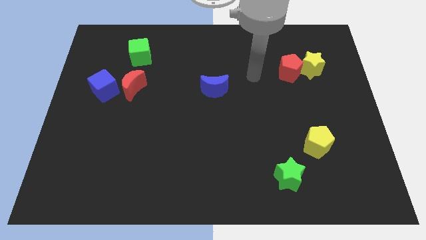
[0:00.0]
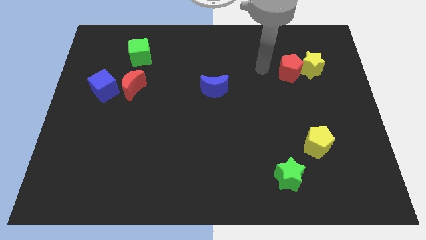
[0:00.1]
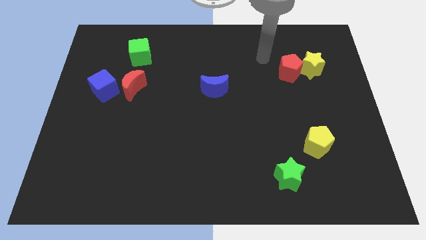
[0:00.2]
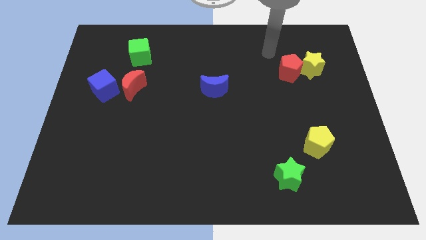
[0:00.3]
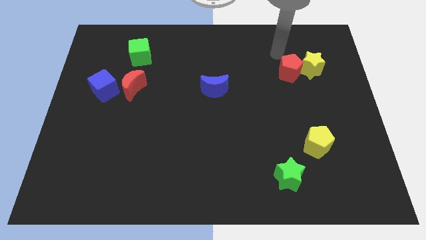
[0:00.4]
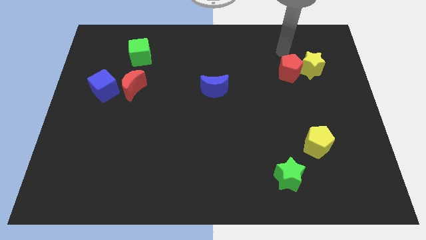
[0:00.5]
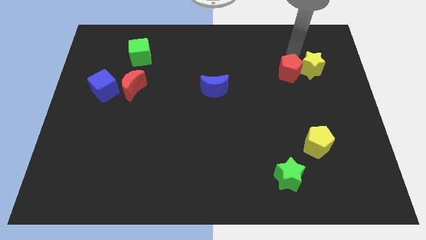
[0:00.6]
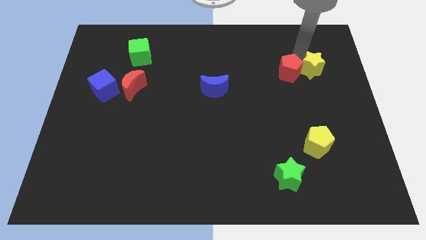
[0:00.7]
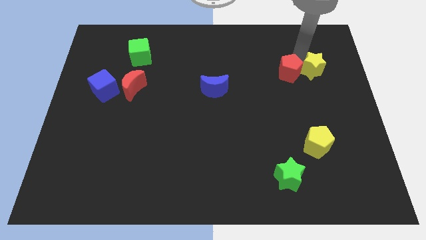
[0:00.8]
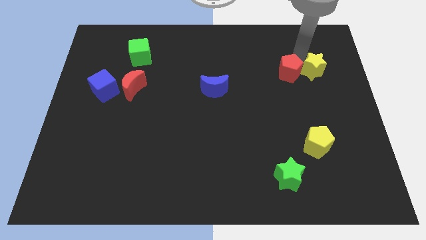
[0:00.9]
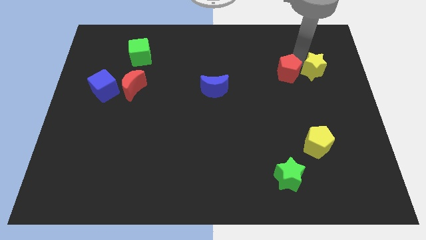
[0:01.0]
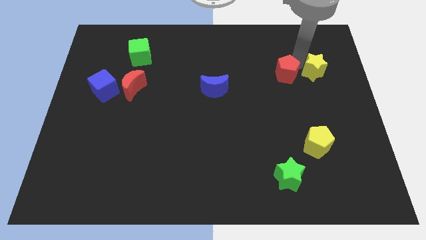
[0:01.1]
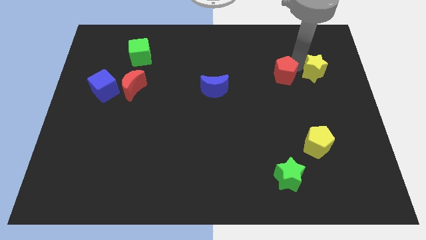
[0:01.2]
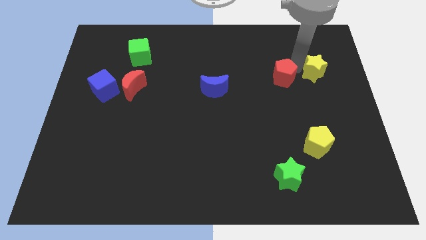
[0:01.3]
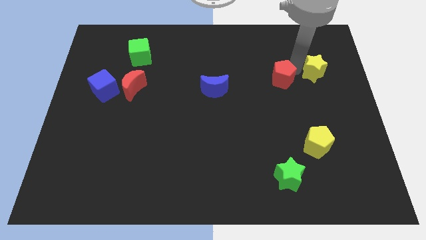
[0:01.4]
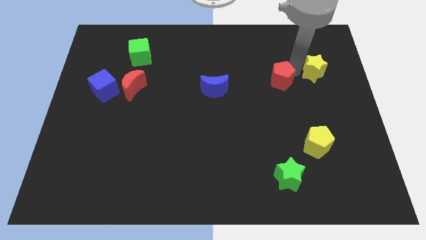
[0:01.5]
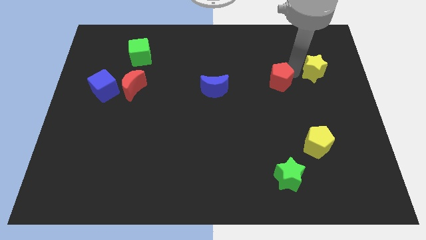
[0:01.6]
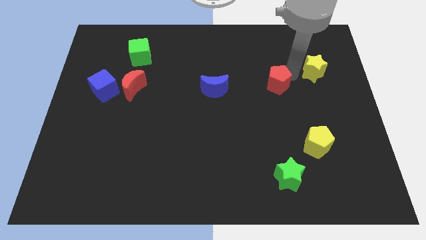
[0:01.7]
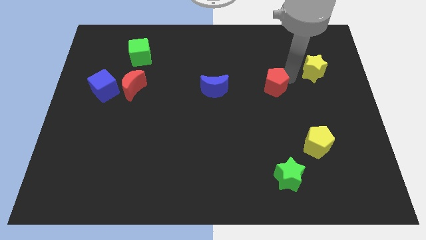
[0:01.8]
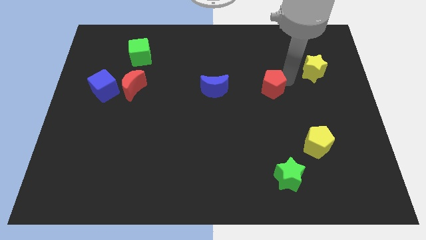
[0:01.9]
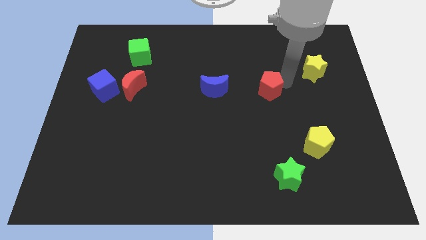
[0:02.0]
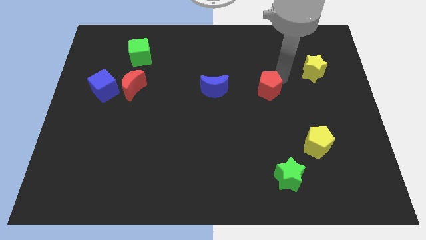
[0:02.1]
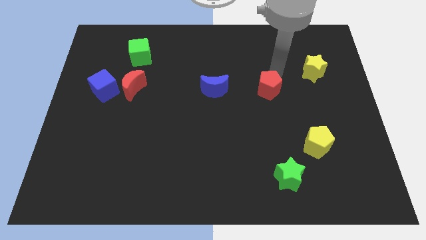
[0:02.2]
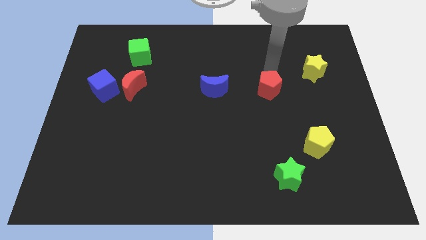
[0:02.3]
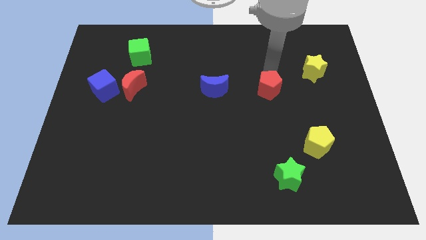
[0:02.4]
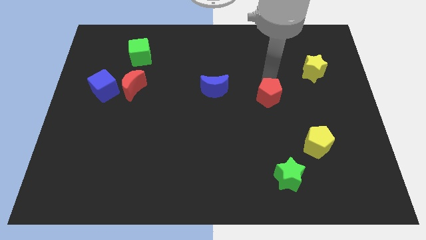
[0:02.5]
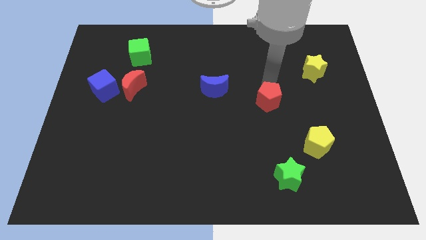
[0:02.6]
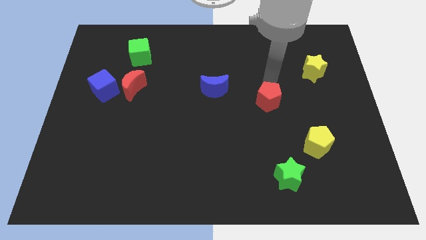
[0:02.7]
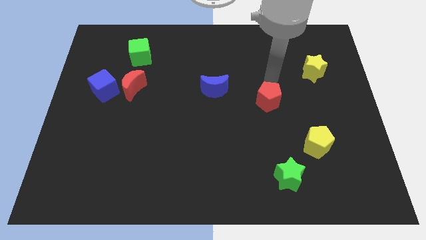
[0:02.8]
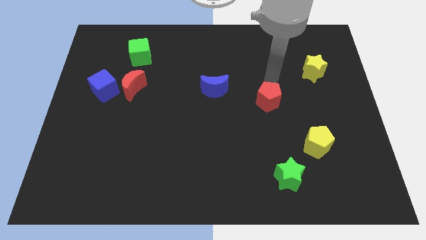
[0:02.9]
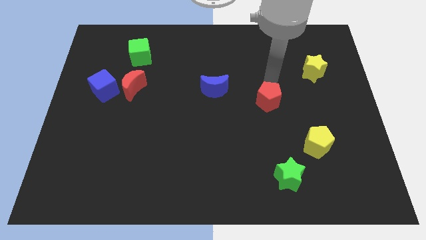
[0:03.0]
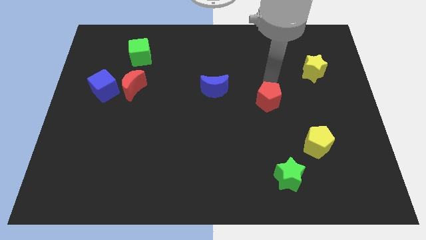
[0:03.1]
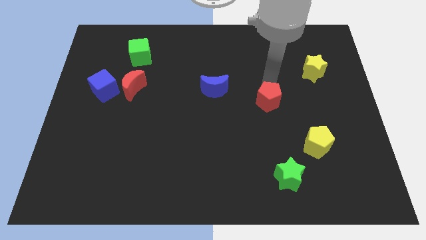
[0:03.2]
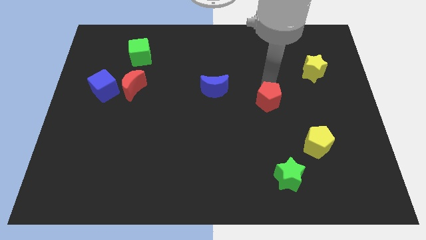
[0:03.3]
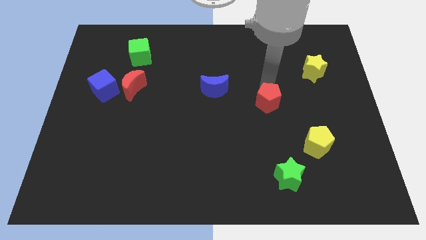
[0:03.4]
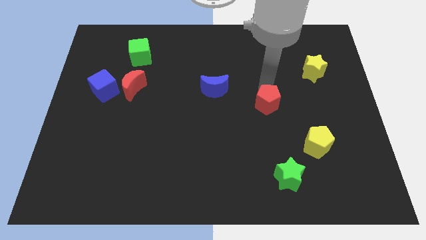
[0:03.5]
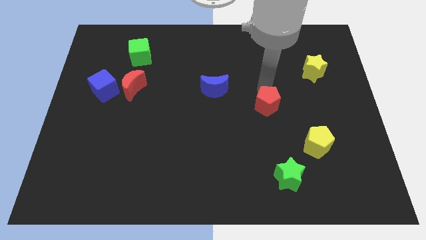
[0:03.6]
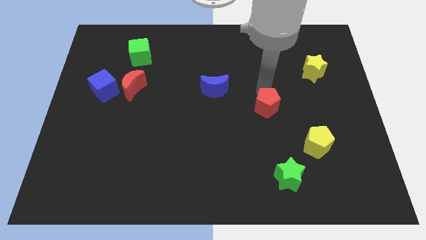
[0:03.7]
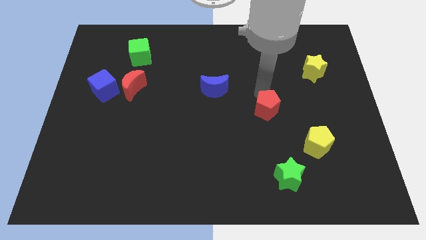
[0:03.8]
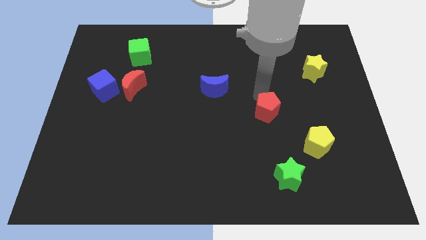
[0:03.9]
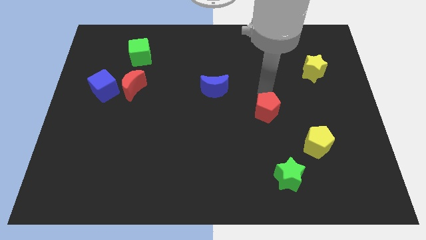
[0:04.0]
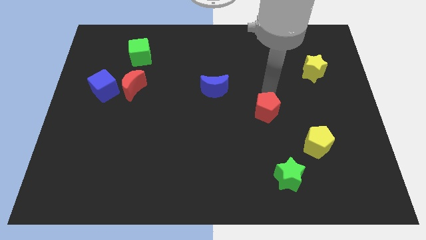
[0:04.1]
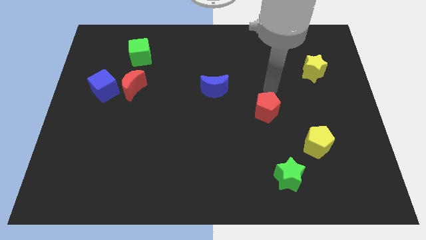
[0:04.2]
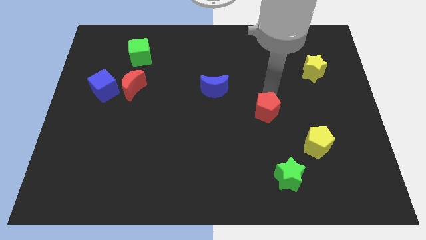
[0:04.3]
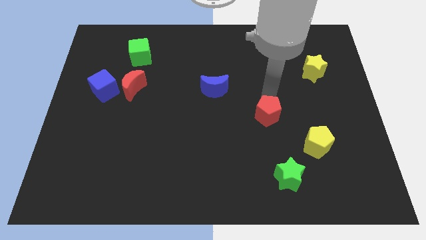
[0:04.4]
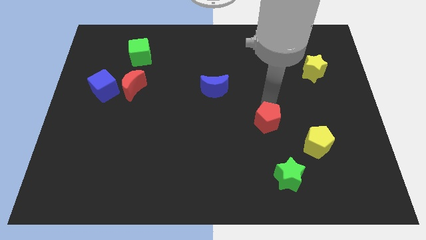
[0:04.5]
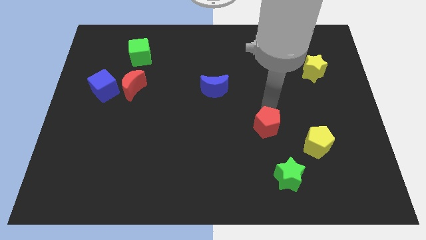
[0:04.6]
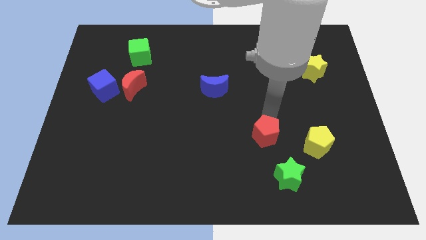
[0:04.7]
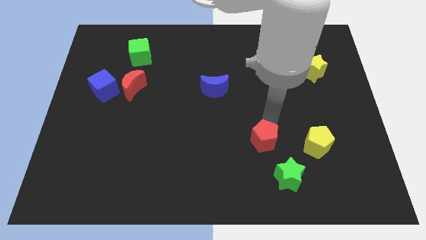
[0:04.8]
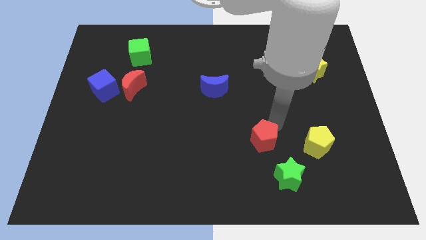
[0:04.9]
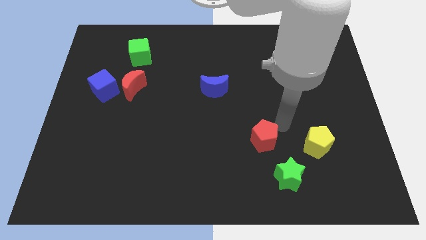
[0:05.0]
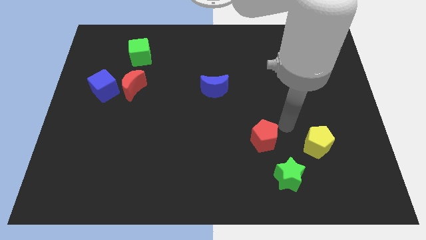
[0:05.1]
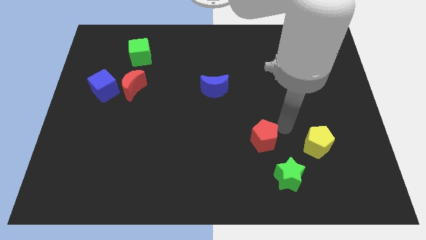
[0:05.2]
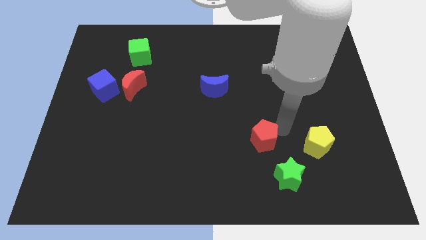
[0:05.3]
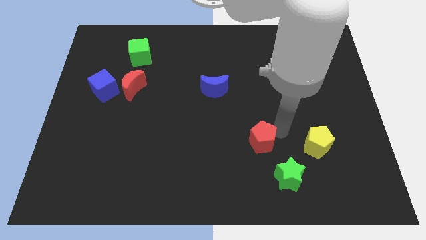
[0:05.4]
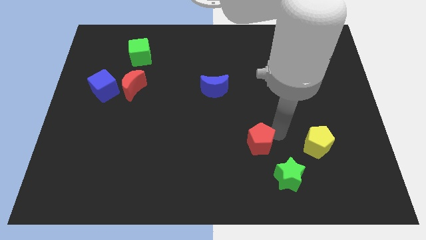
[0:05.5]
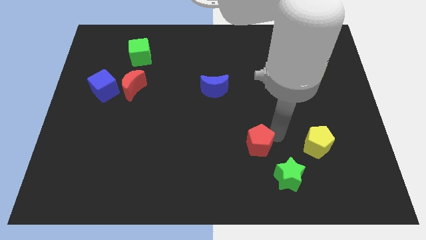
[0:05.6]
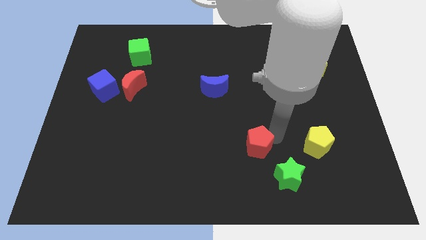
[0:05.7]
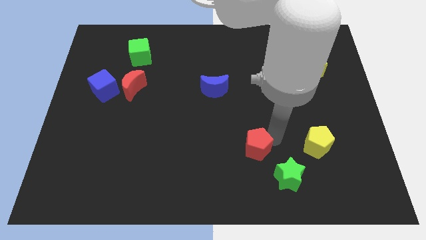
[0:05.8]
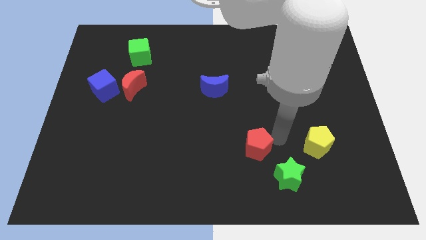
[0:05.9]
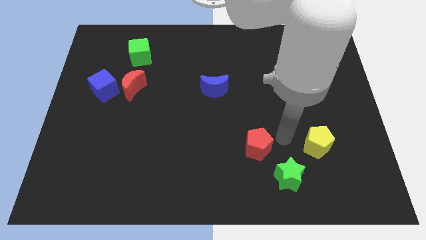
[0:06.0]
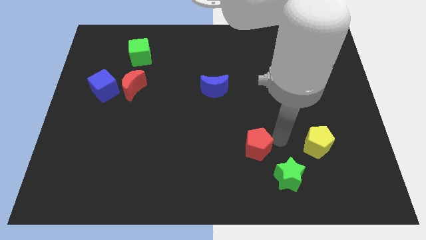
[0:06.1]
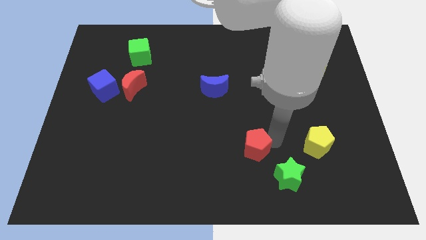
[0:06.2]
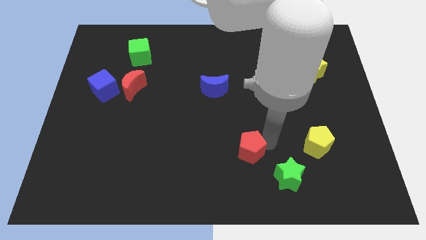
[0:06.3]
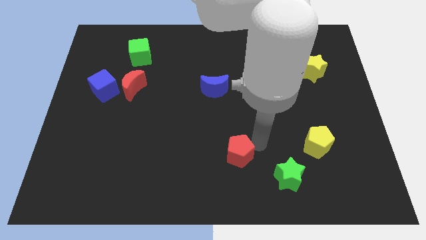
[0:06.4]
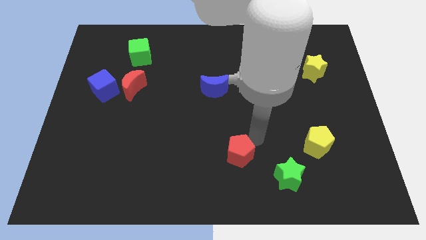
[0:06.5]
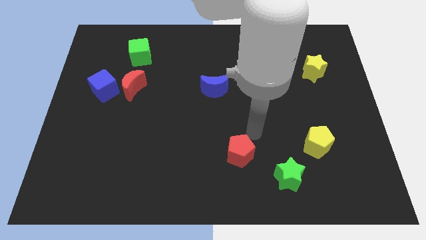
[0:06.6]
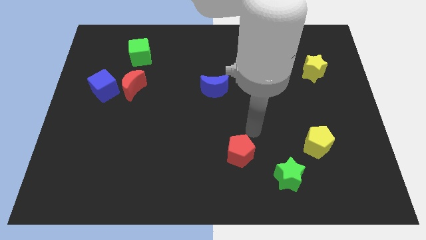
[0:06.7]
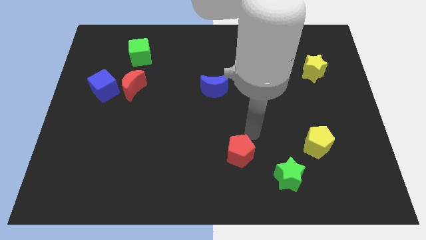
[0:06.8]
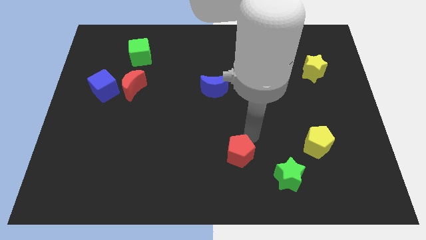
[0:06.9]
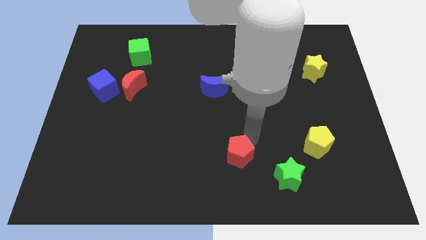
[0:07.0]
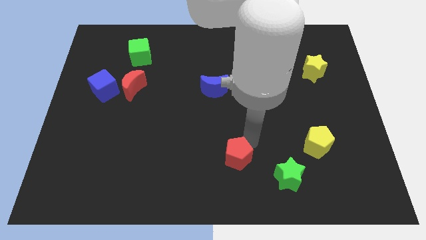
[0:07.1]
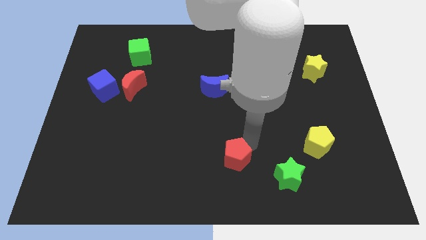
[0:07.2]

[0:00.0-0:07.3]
slide the red pentagon to the bottom
